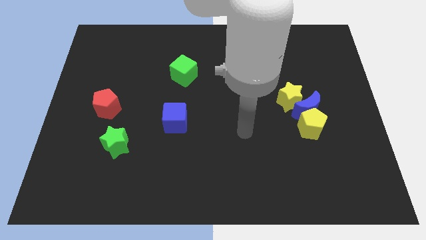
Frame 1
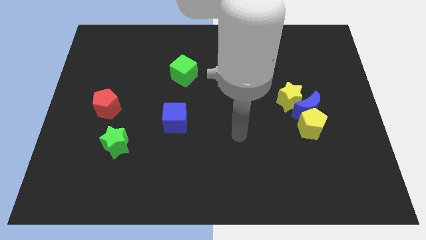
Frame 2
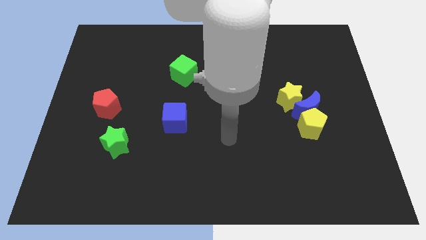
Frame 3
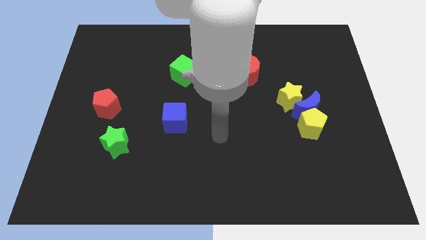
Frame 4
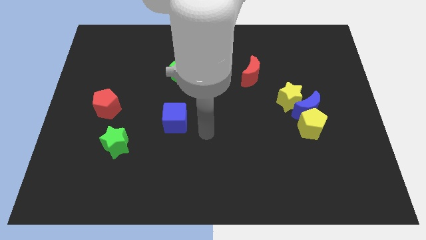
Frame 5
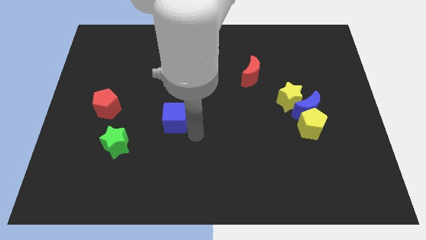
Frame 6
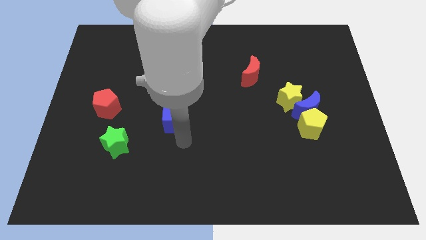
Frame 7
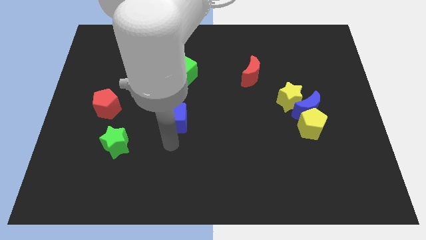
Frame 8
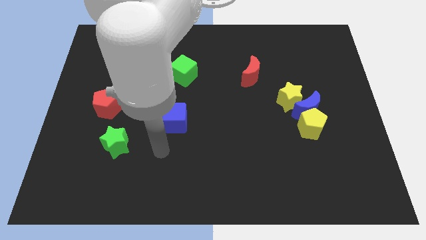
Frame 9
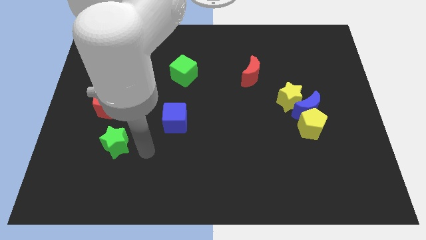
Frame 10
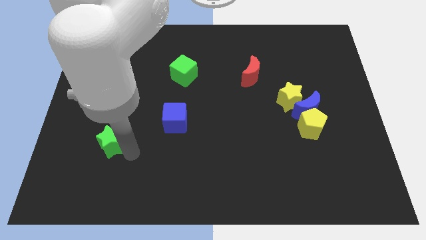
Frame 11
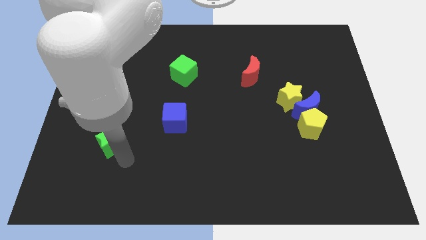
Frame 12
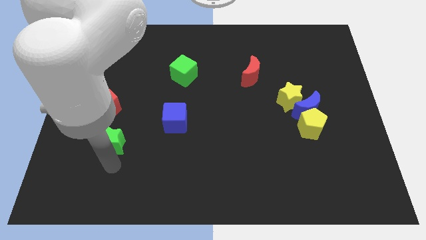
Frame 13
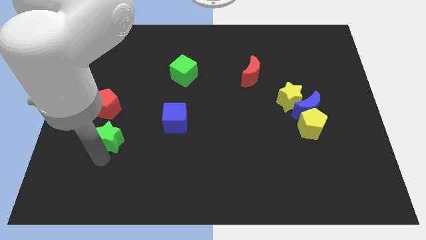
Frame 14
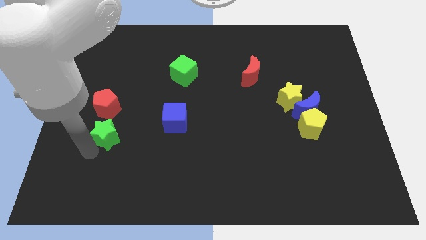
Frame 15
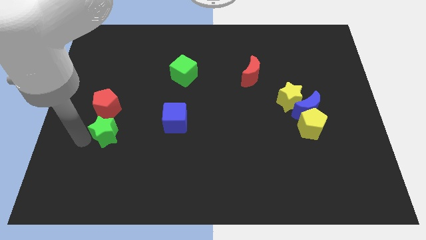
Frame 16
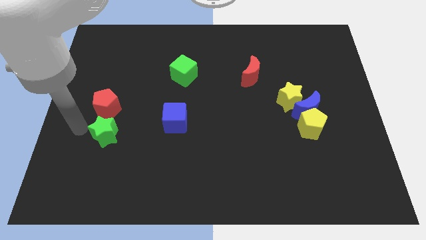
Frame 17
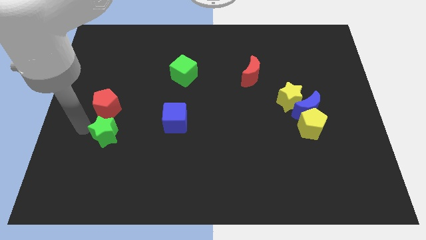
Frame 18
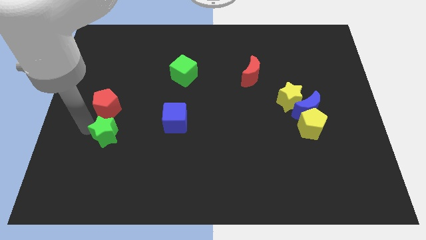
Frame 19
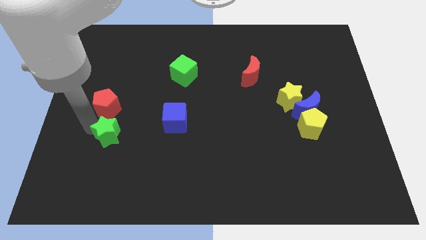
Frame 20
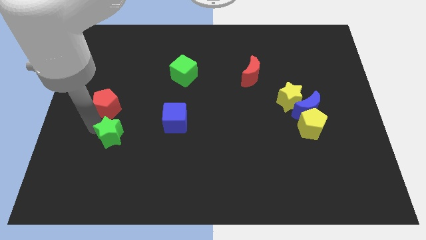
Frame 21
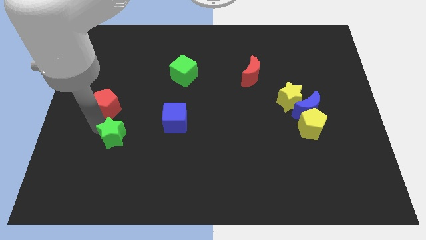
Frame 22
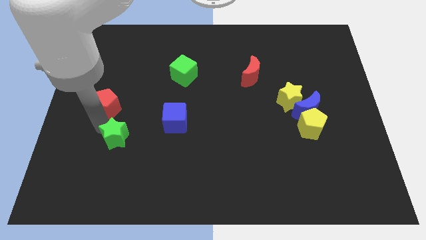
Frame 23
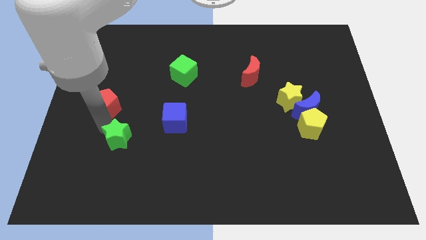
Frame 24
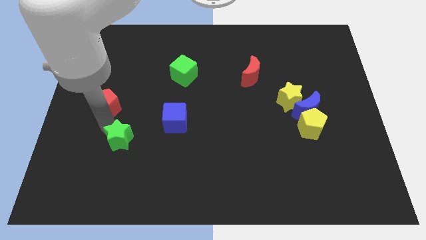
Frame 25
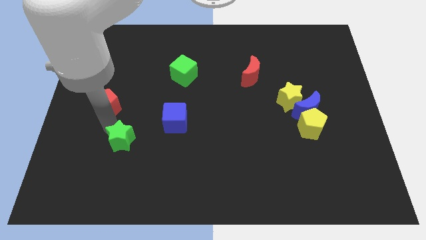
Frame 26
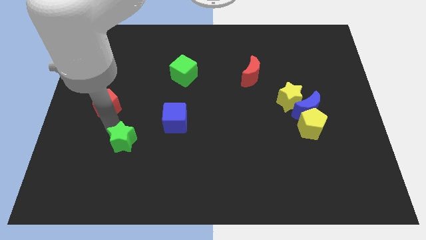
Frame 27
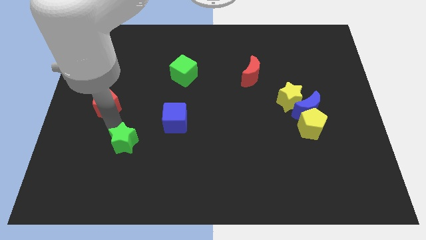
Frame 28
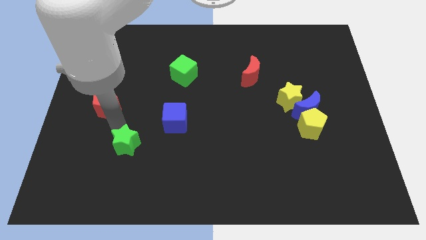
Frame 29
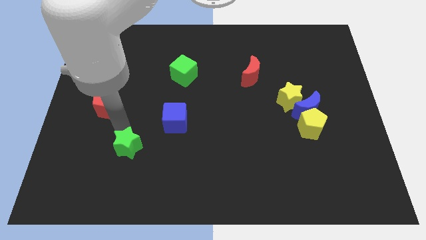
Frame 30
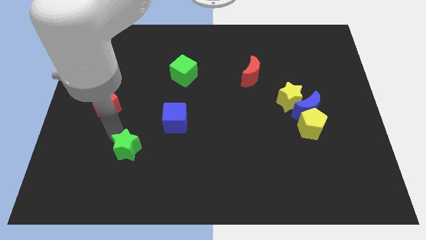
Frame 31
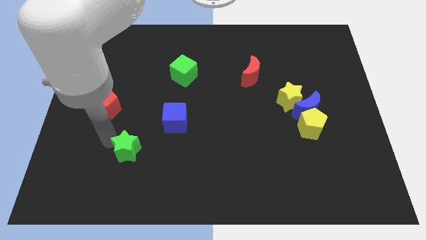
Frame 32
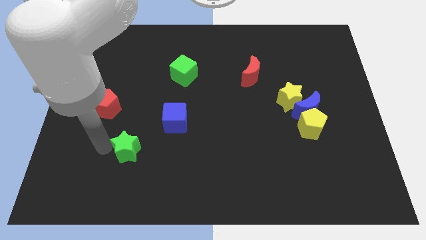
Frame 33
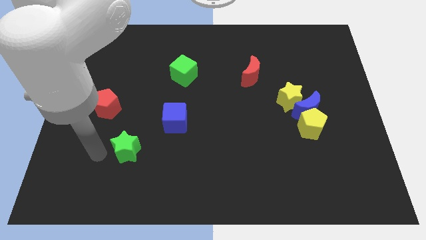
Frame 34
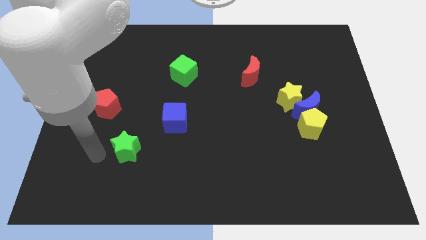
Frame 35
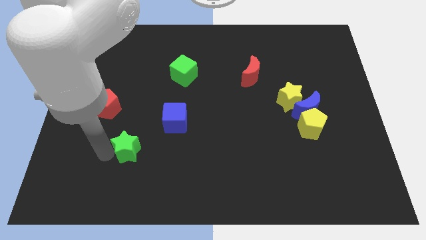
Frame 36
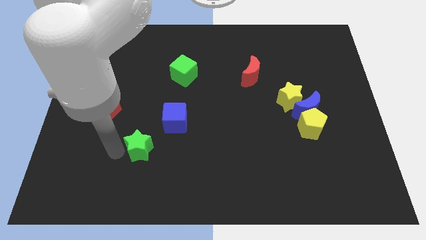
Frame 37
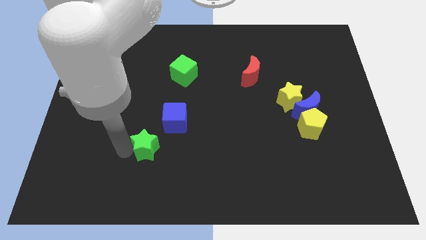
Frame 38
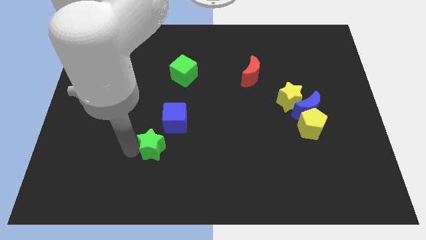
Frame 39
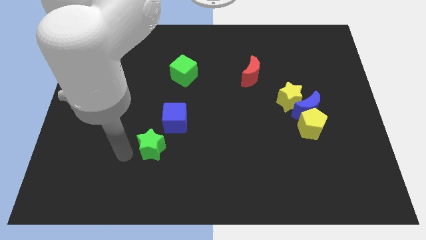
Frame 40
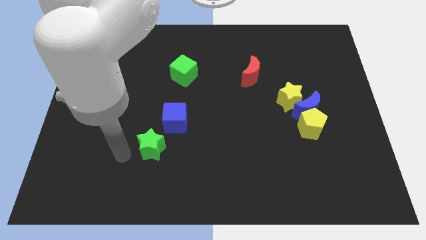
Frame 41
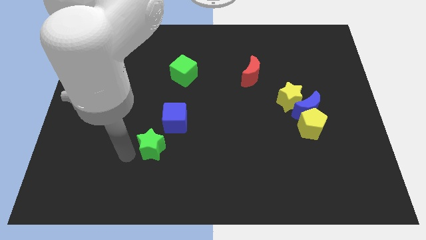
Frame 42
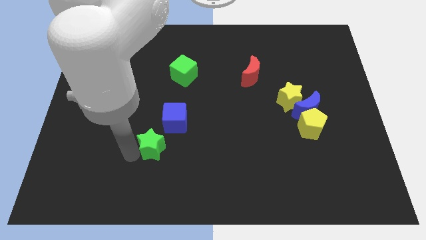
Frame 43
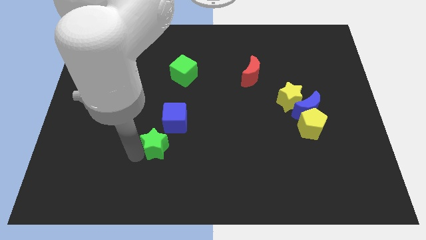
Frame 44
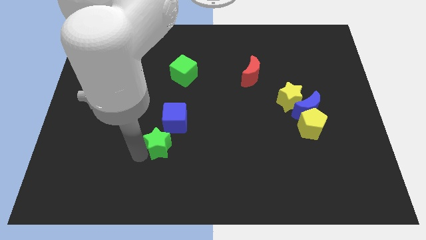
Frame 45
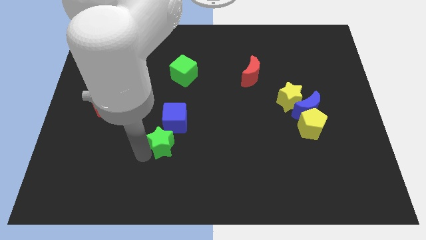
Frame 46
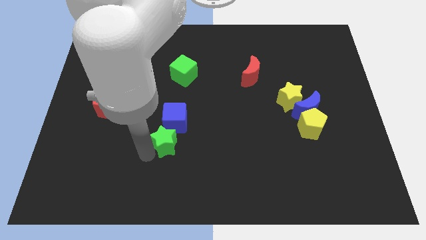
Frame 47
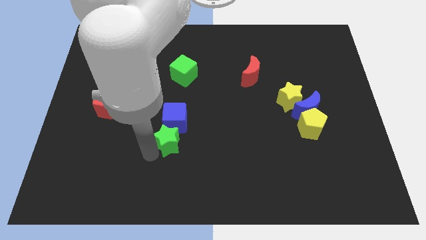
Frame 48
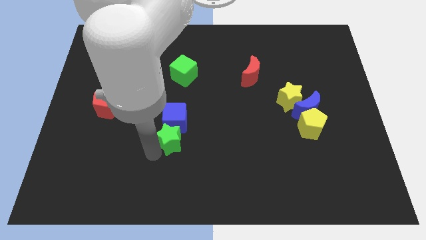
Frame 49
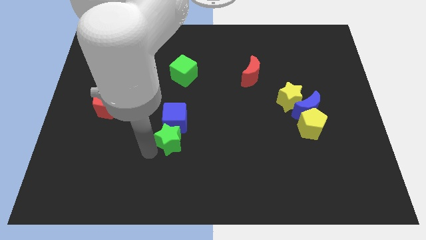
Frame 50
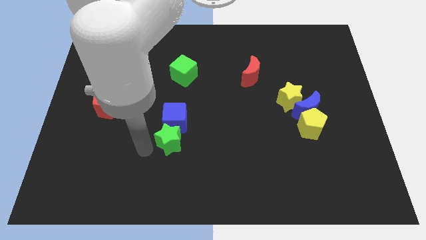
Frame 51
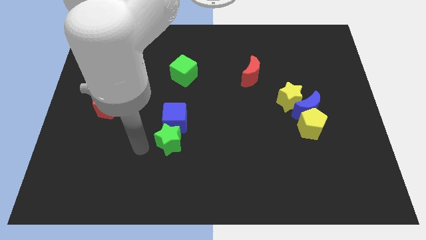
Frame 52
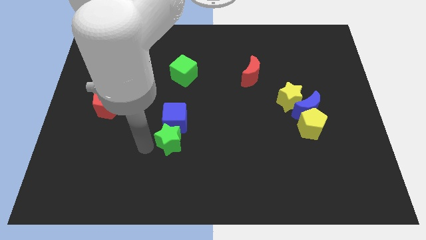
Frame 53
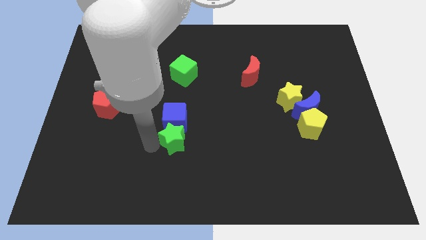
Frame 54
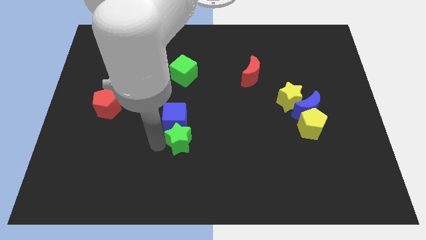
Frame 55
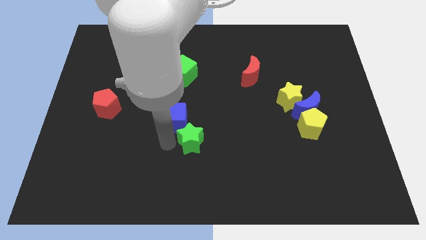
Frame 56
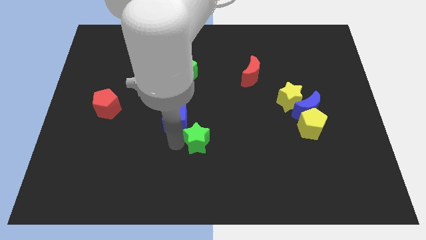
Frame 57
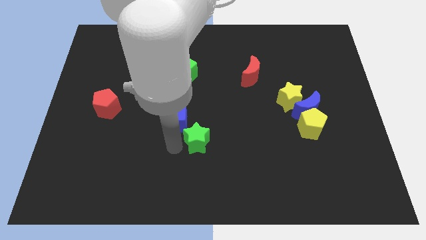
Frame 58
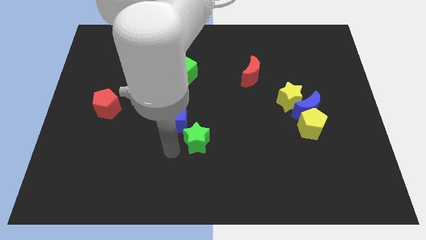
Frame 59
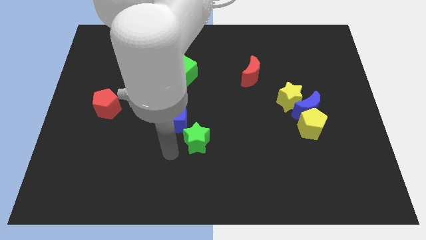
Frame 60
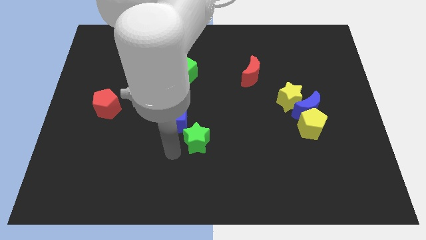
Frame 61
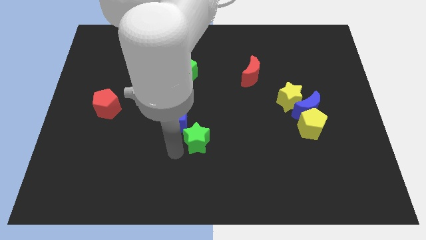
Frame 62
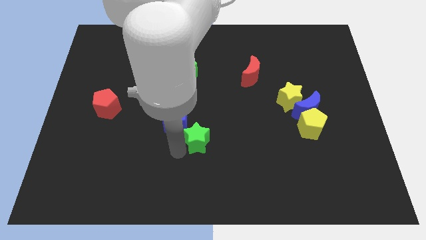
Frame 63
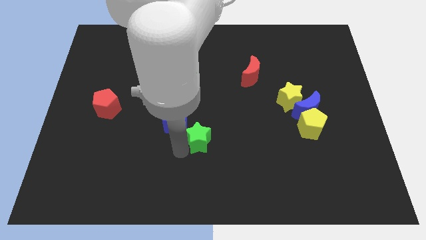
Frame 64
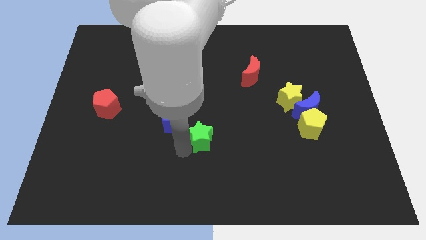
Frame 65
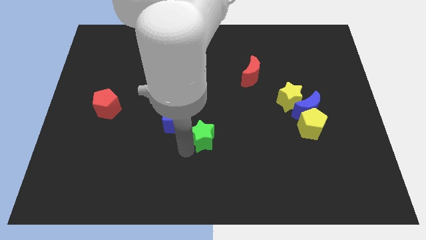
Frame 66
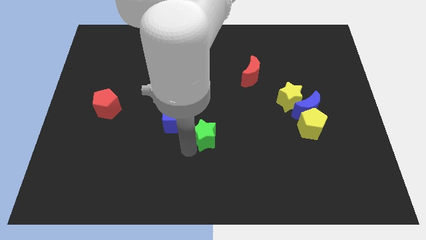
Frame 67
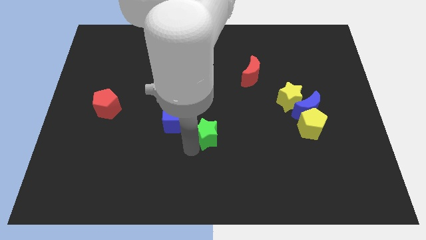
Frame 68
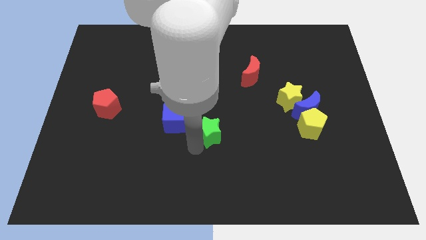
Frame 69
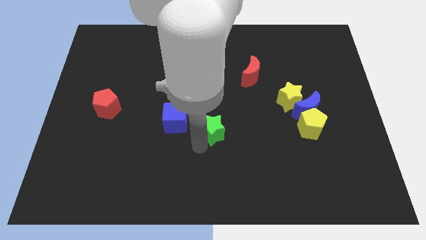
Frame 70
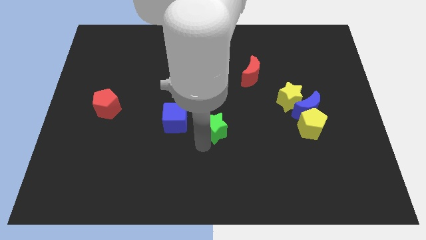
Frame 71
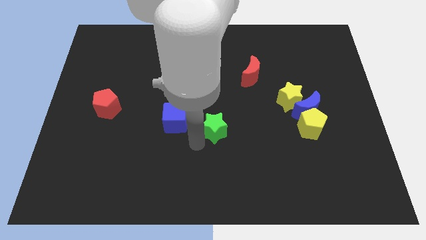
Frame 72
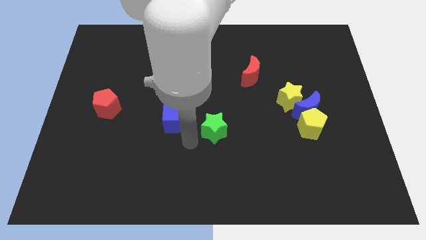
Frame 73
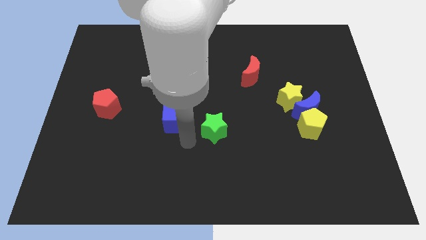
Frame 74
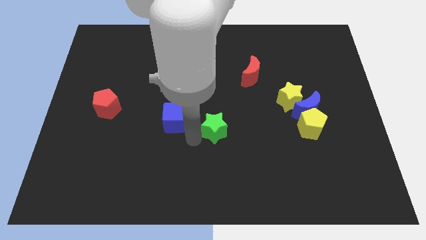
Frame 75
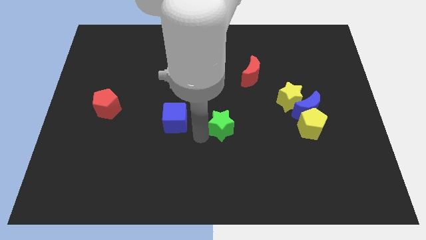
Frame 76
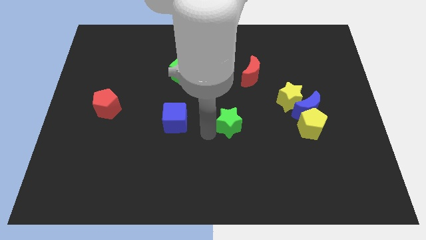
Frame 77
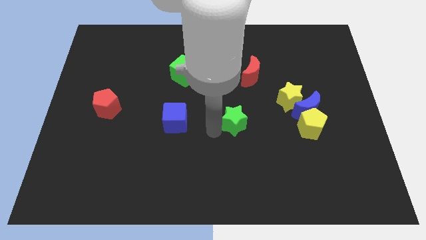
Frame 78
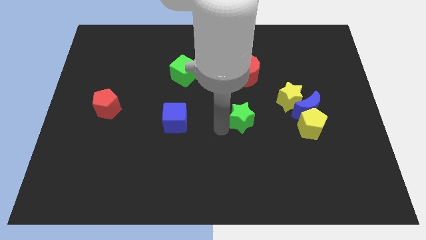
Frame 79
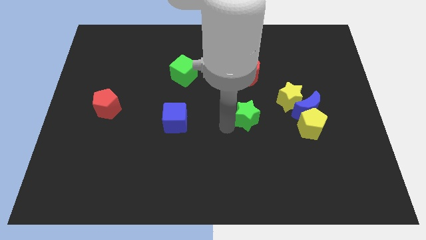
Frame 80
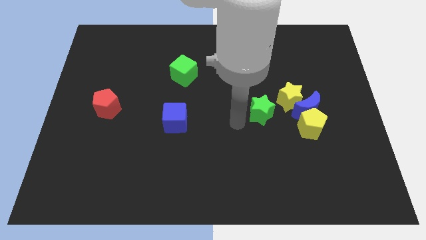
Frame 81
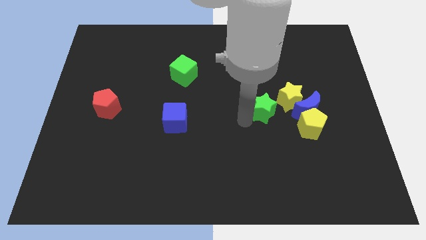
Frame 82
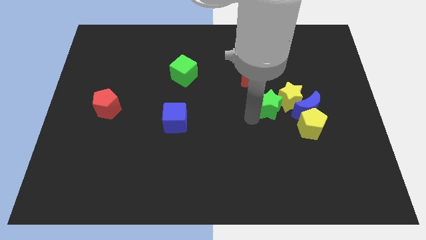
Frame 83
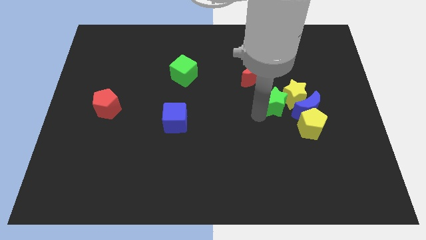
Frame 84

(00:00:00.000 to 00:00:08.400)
push the green star to the bottom right of the red moon
